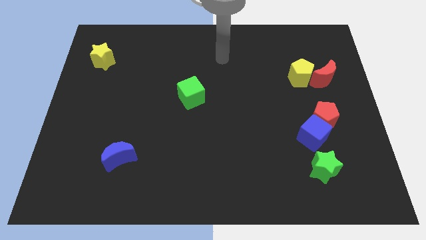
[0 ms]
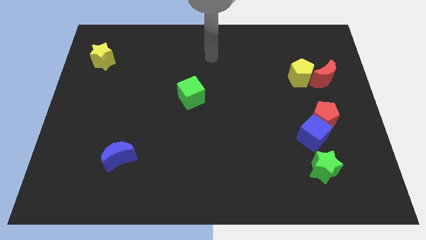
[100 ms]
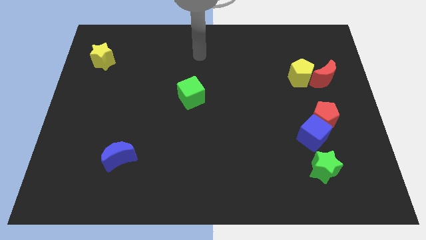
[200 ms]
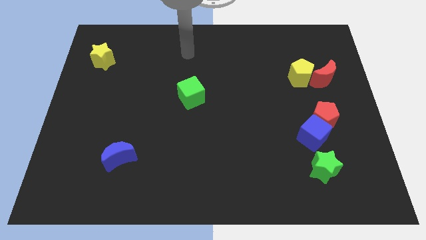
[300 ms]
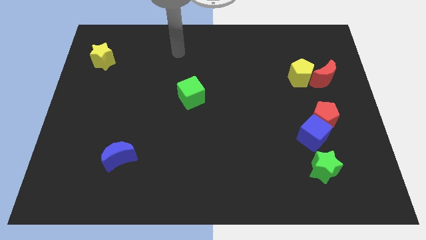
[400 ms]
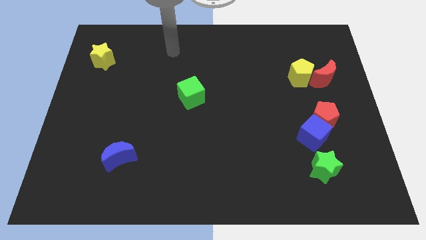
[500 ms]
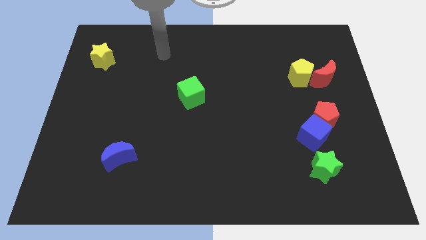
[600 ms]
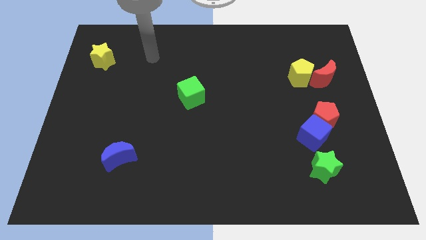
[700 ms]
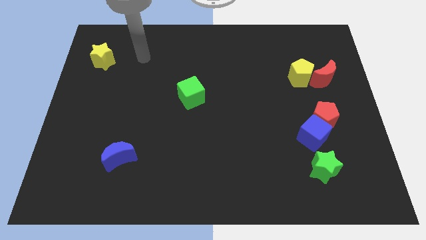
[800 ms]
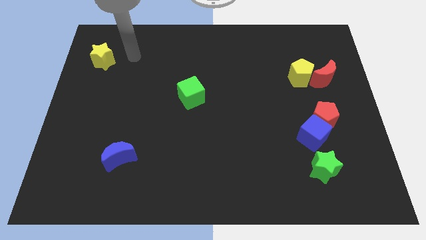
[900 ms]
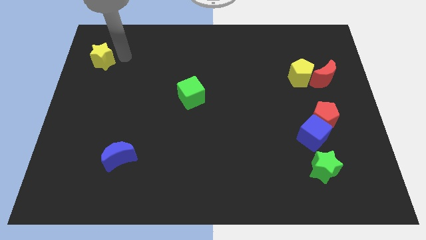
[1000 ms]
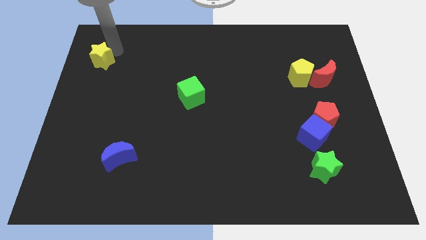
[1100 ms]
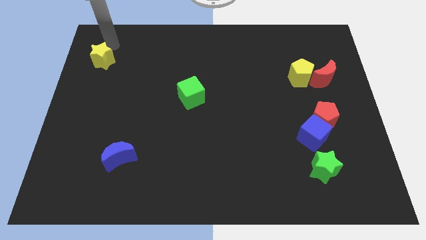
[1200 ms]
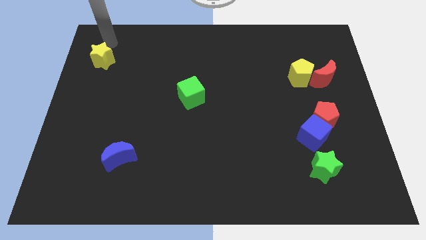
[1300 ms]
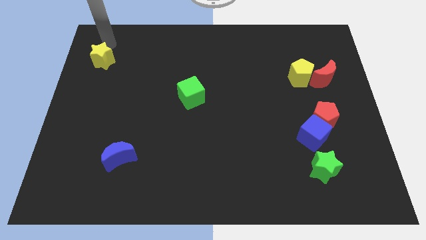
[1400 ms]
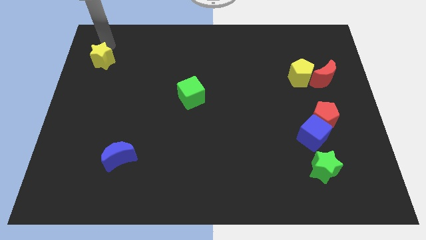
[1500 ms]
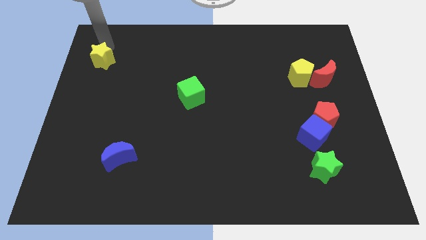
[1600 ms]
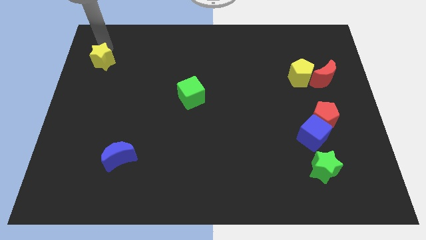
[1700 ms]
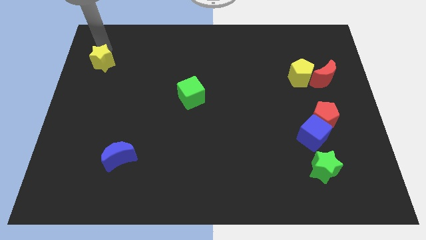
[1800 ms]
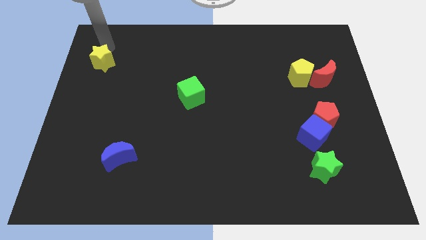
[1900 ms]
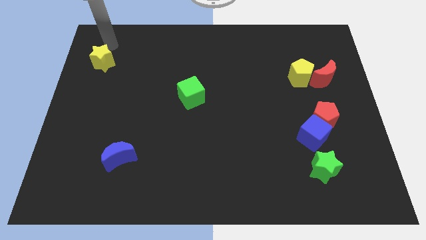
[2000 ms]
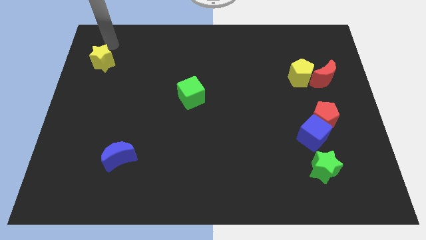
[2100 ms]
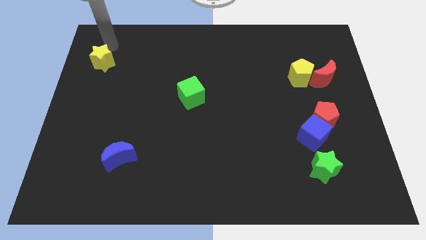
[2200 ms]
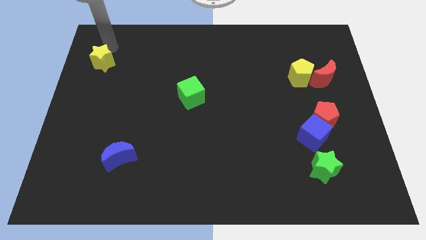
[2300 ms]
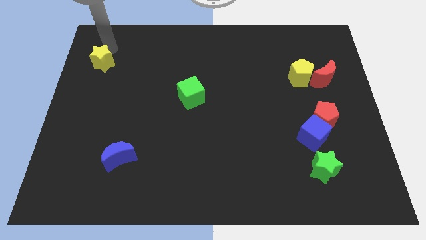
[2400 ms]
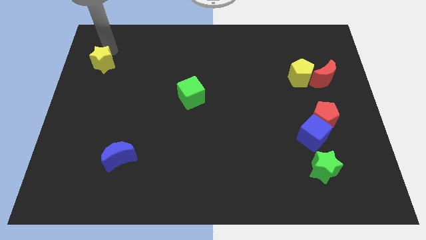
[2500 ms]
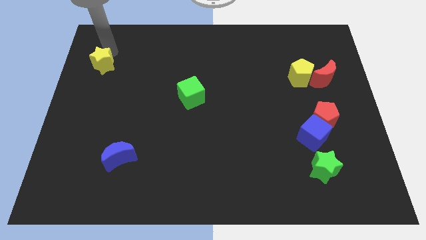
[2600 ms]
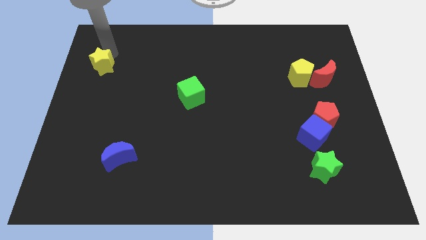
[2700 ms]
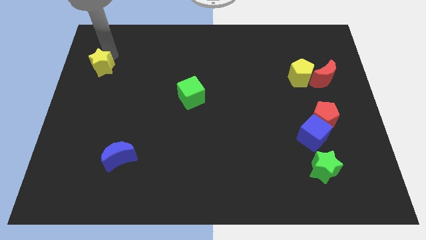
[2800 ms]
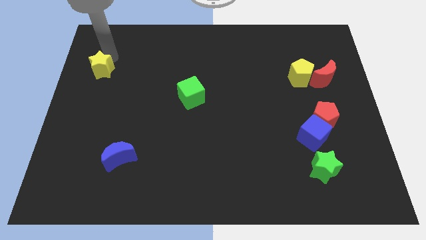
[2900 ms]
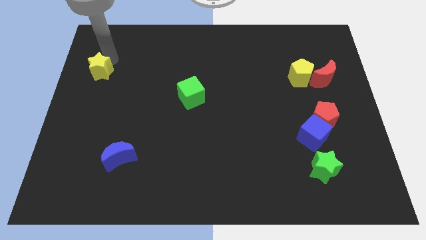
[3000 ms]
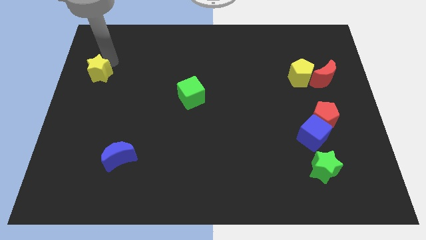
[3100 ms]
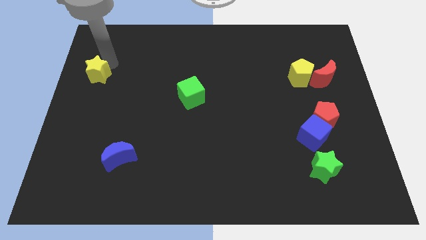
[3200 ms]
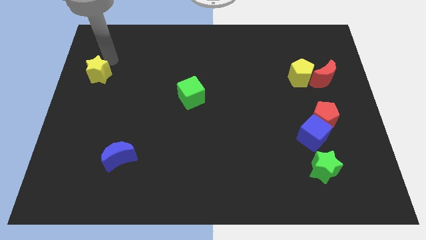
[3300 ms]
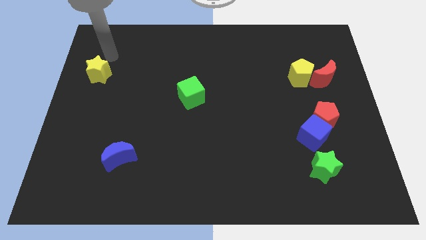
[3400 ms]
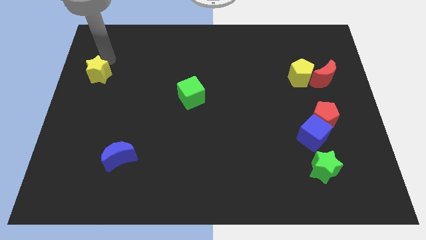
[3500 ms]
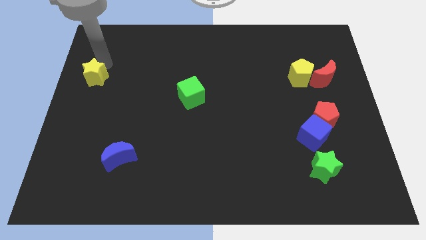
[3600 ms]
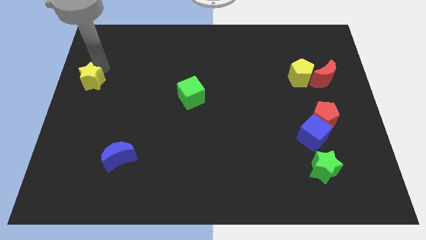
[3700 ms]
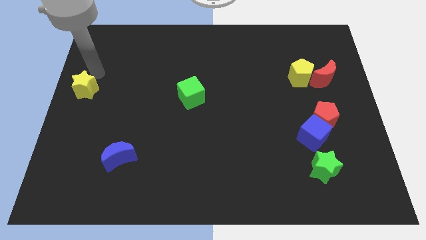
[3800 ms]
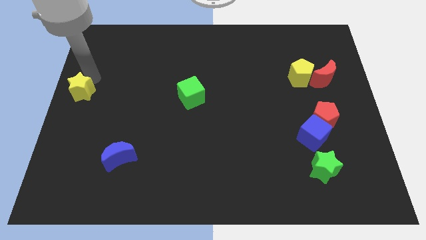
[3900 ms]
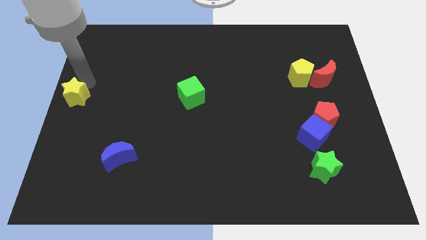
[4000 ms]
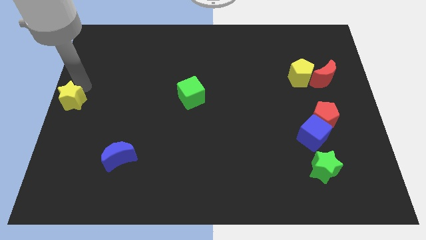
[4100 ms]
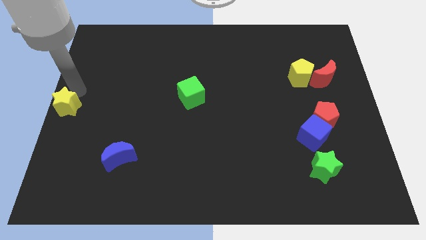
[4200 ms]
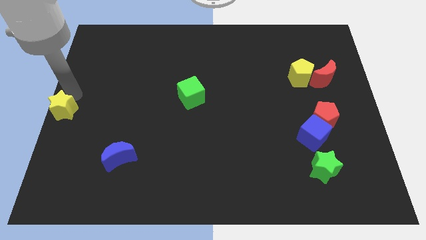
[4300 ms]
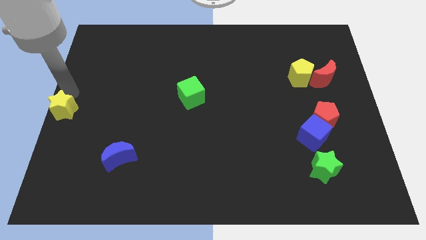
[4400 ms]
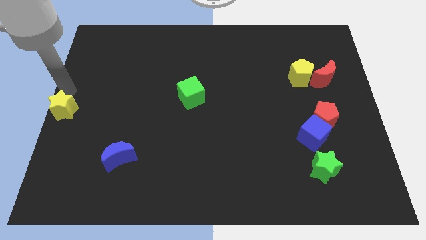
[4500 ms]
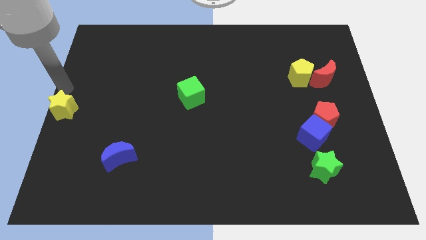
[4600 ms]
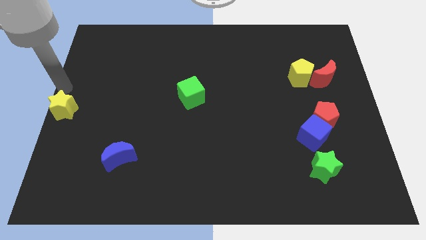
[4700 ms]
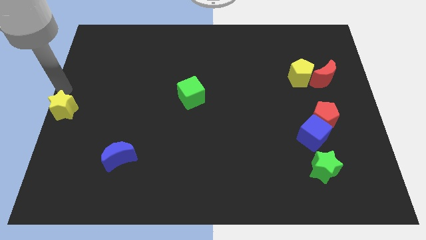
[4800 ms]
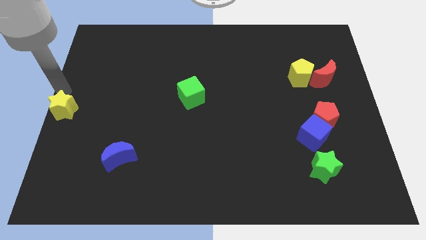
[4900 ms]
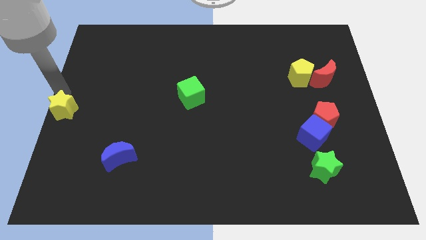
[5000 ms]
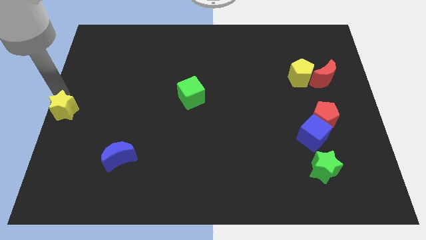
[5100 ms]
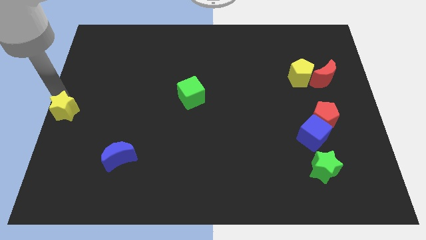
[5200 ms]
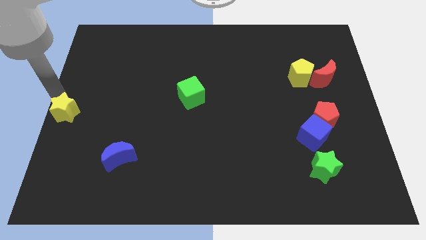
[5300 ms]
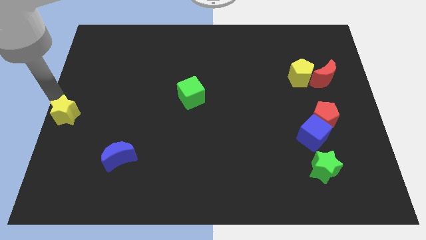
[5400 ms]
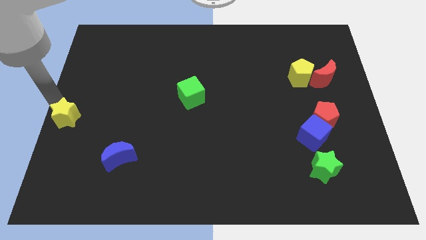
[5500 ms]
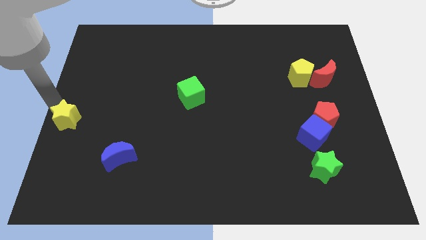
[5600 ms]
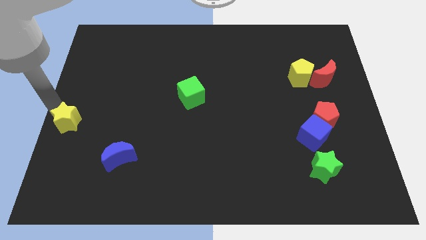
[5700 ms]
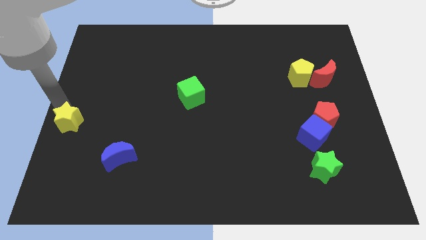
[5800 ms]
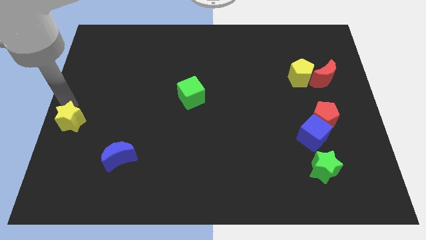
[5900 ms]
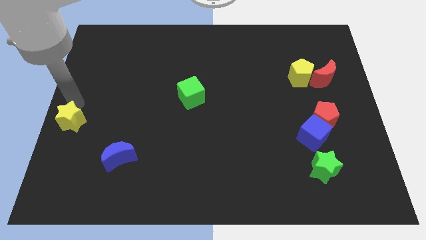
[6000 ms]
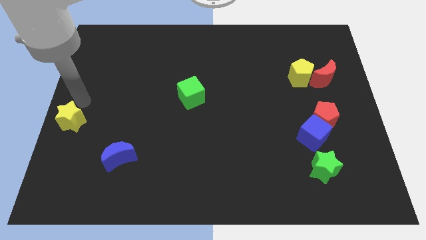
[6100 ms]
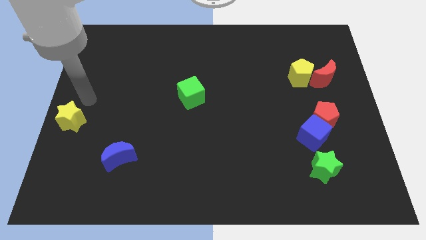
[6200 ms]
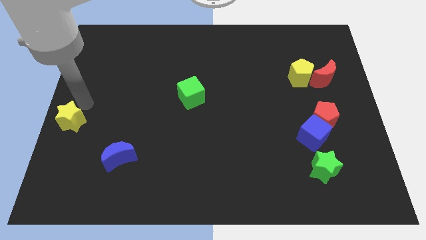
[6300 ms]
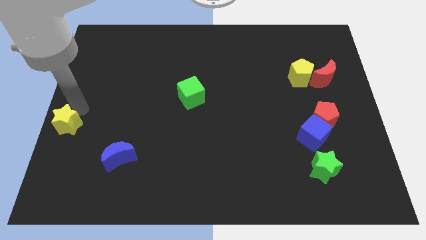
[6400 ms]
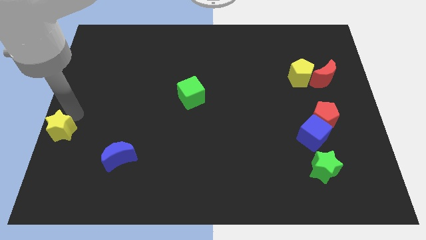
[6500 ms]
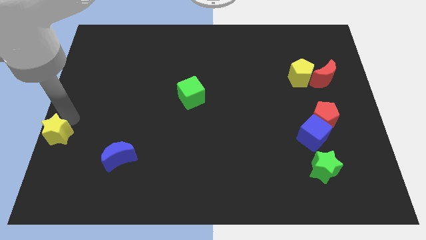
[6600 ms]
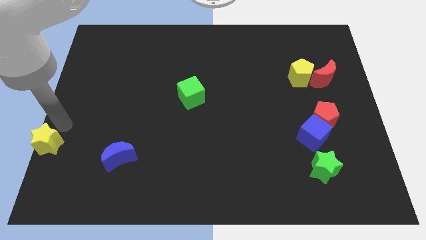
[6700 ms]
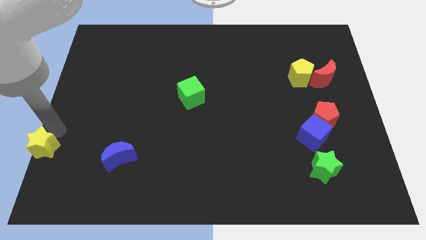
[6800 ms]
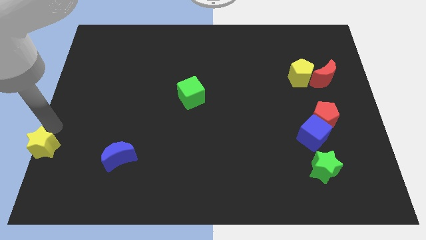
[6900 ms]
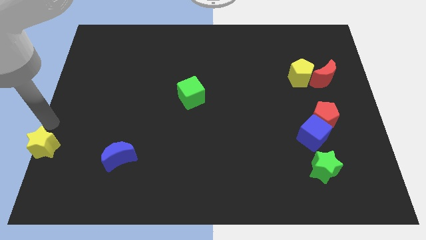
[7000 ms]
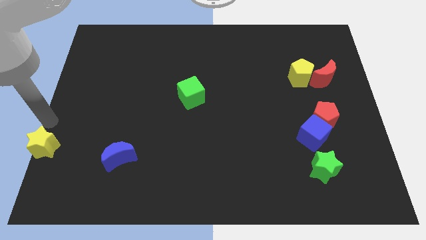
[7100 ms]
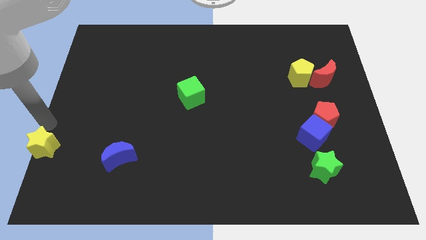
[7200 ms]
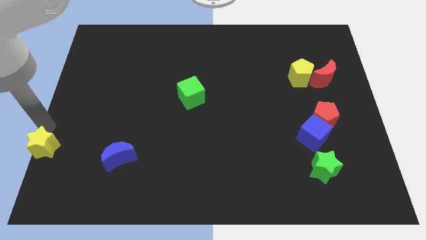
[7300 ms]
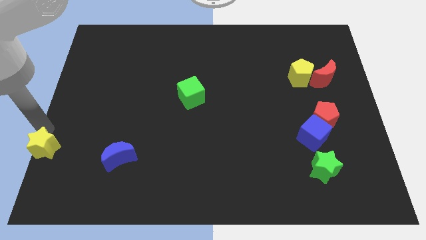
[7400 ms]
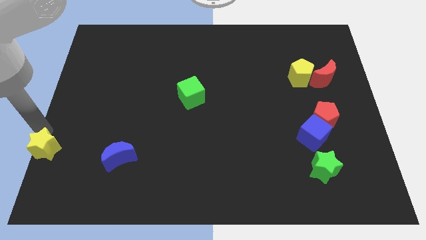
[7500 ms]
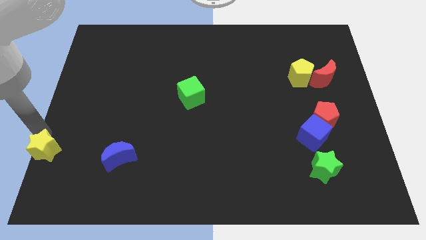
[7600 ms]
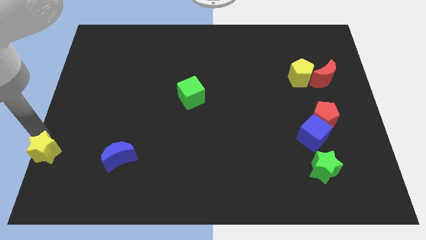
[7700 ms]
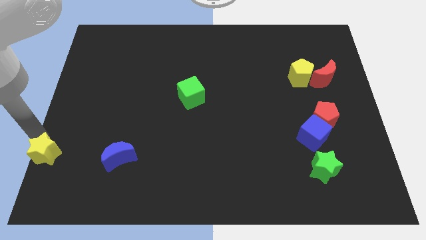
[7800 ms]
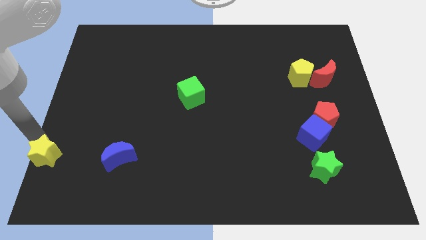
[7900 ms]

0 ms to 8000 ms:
move the yellow star to the lower left corner
